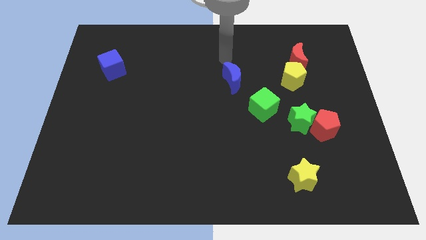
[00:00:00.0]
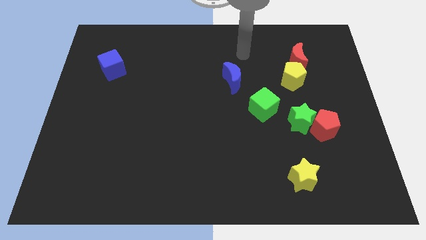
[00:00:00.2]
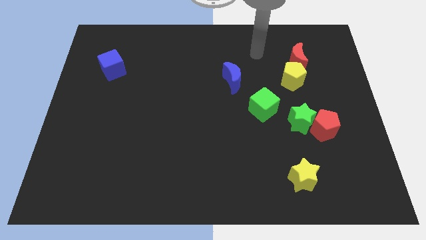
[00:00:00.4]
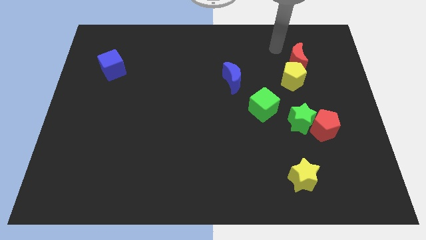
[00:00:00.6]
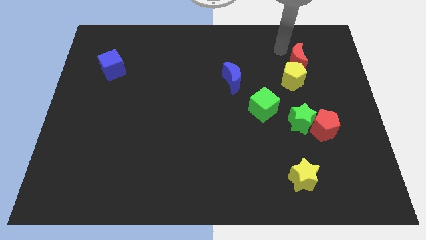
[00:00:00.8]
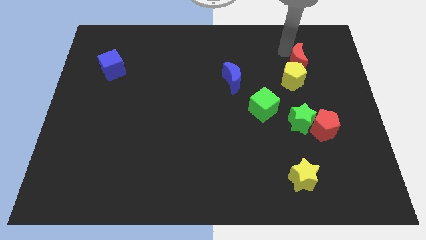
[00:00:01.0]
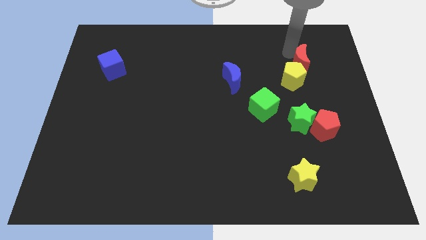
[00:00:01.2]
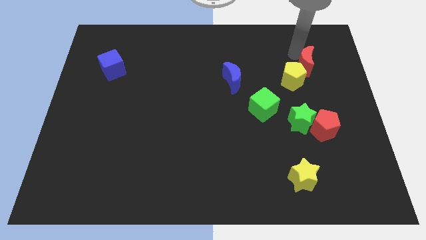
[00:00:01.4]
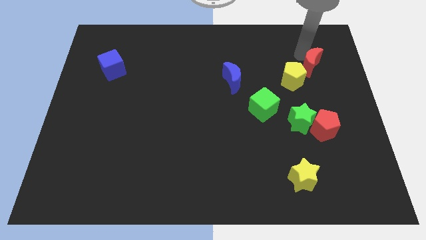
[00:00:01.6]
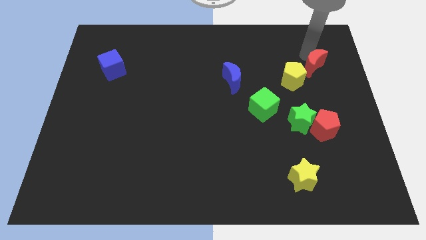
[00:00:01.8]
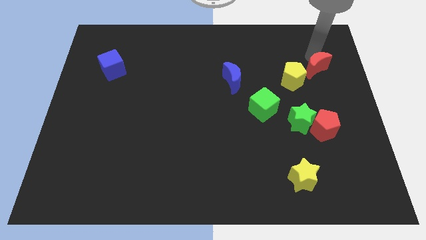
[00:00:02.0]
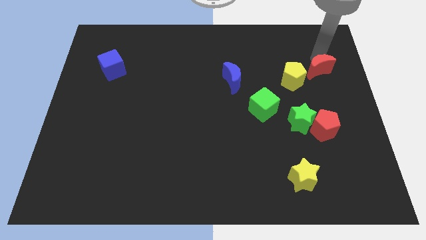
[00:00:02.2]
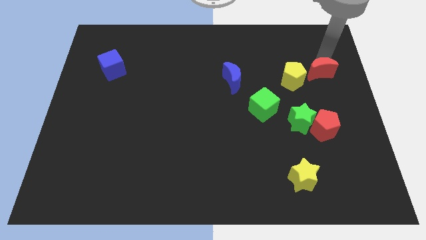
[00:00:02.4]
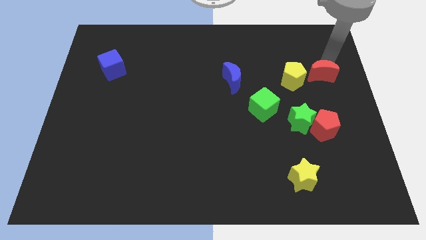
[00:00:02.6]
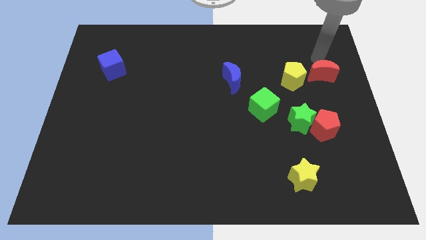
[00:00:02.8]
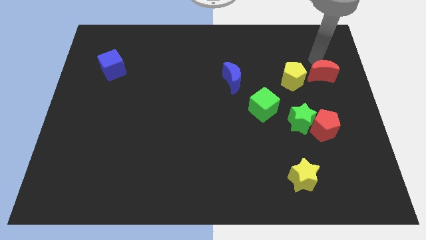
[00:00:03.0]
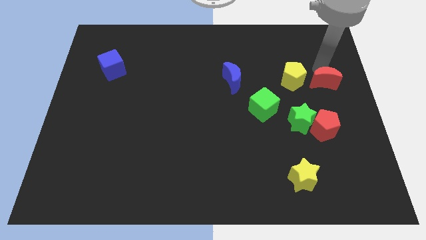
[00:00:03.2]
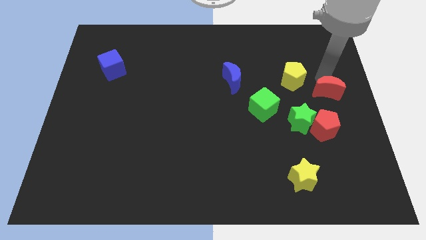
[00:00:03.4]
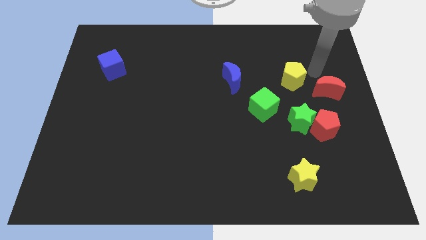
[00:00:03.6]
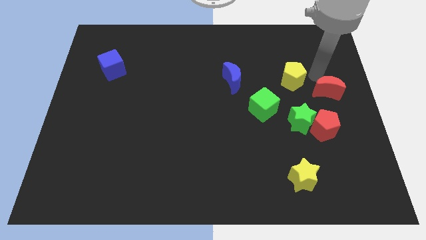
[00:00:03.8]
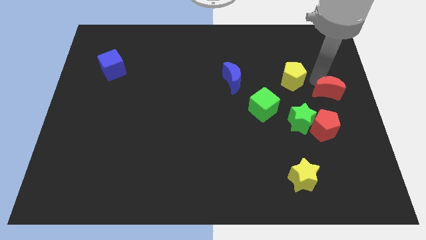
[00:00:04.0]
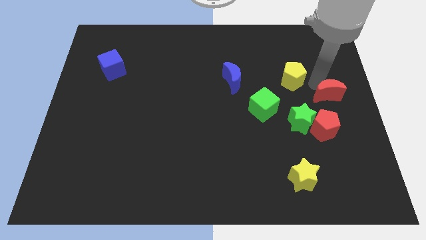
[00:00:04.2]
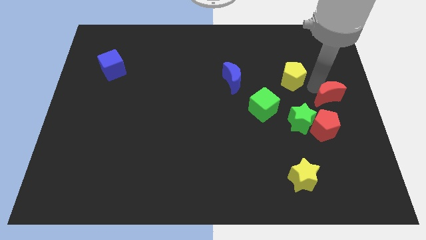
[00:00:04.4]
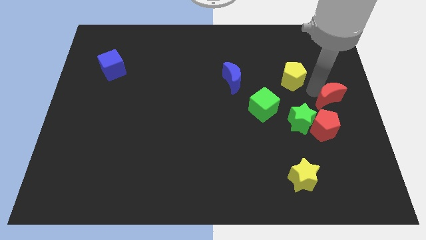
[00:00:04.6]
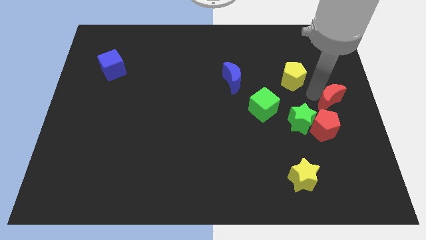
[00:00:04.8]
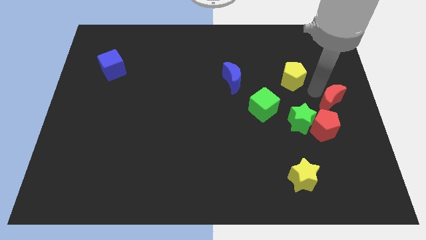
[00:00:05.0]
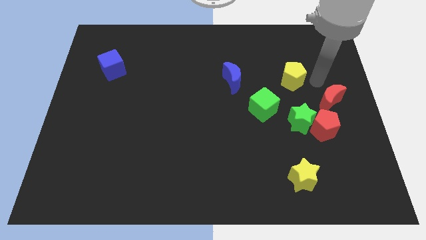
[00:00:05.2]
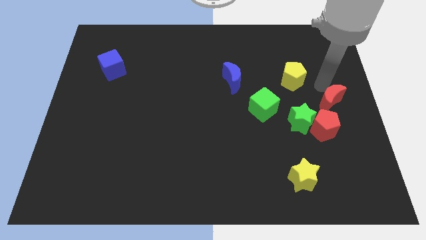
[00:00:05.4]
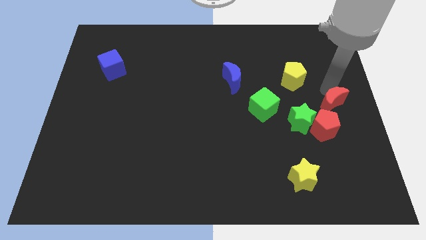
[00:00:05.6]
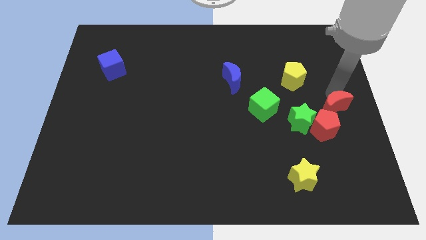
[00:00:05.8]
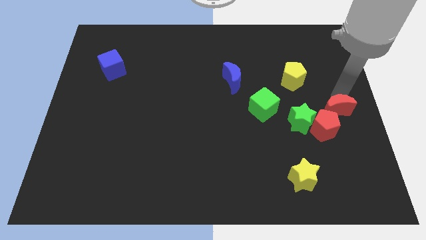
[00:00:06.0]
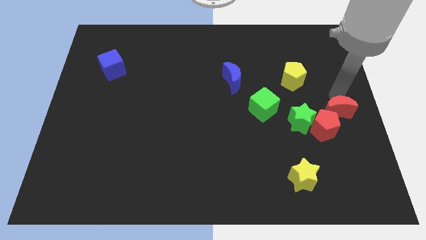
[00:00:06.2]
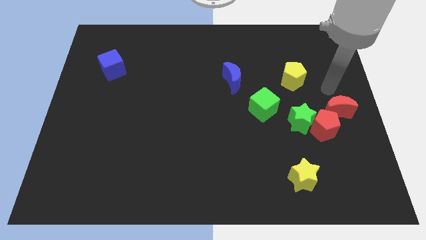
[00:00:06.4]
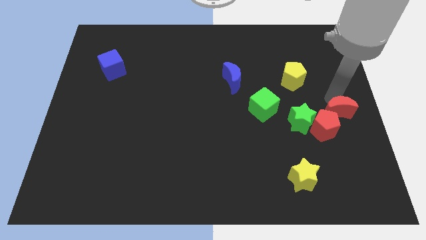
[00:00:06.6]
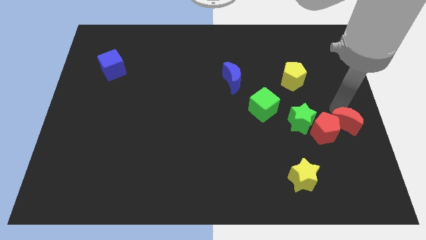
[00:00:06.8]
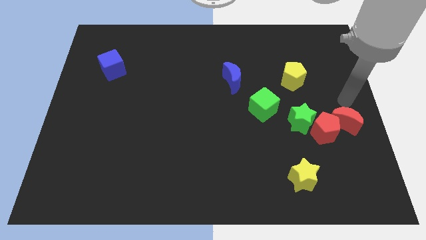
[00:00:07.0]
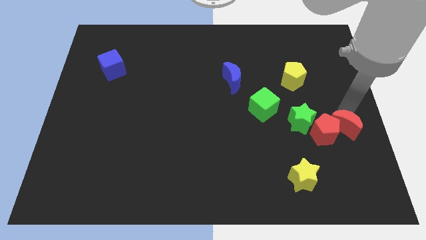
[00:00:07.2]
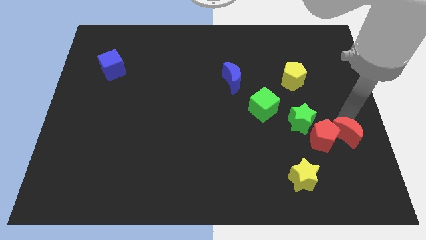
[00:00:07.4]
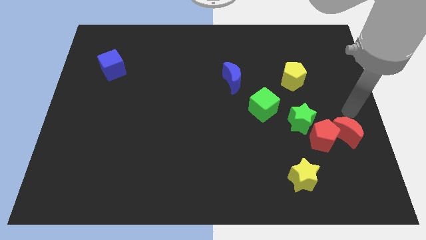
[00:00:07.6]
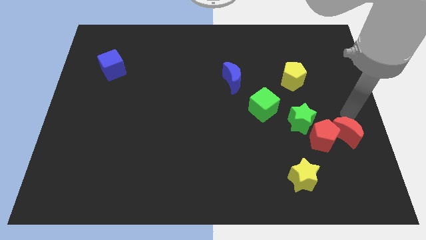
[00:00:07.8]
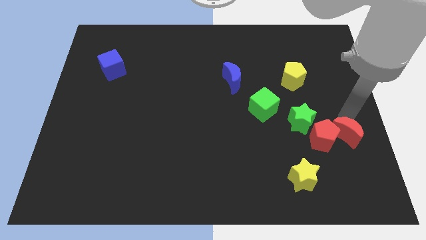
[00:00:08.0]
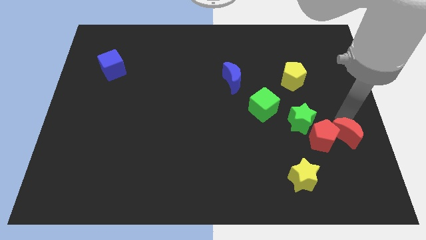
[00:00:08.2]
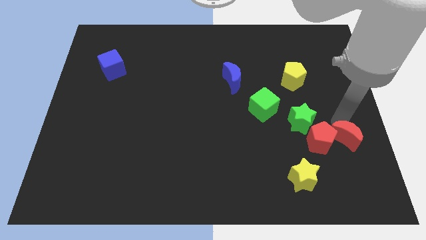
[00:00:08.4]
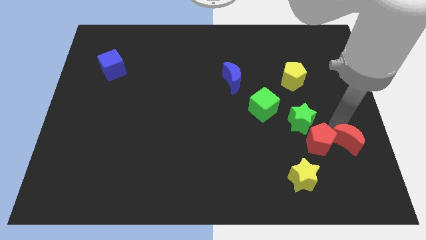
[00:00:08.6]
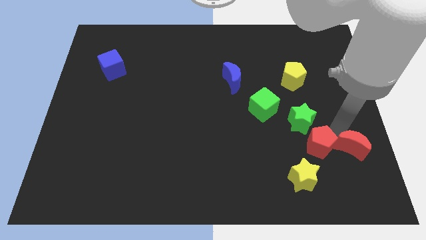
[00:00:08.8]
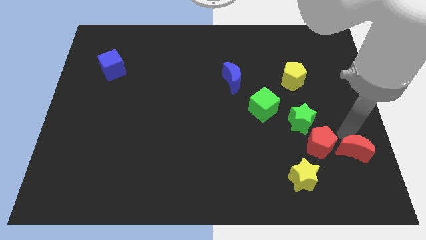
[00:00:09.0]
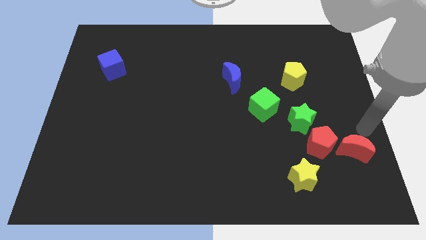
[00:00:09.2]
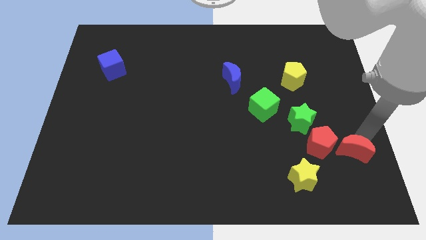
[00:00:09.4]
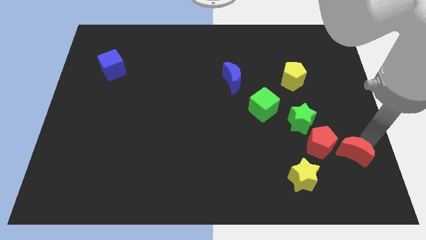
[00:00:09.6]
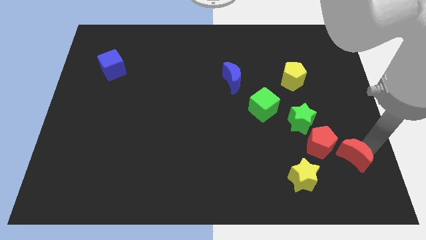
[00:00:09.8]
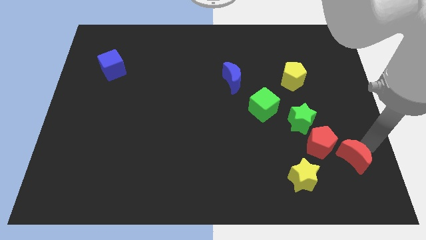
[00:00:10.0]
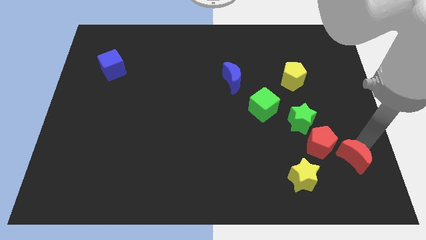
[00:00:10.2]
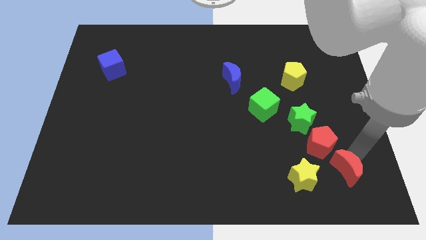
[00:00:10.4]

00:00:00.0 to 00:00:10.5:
move the red moon to the bottom of the red pentagon

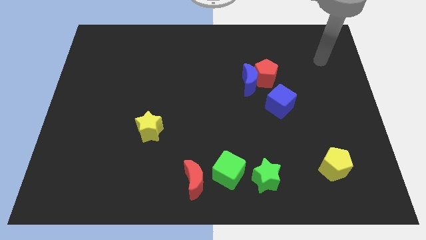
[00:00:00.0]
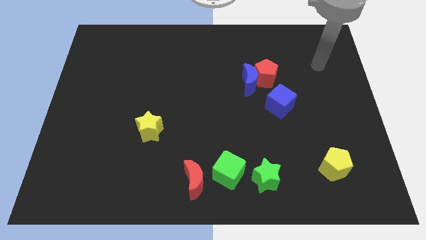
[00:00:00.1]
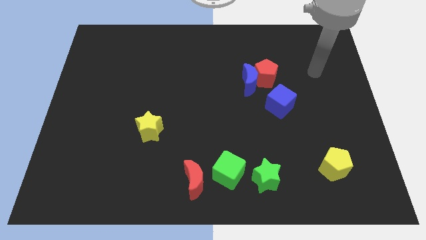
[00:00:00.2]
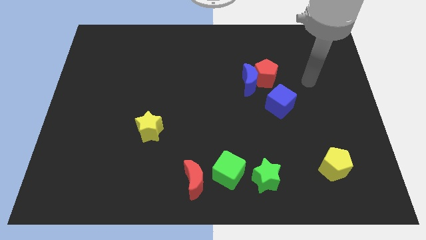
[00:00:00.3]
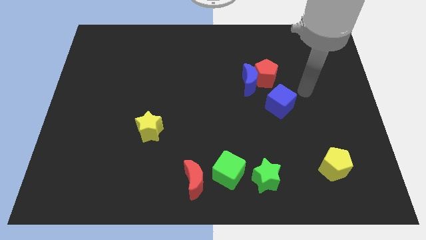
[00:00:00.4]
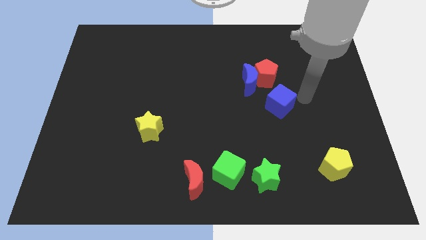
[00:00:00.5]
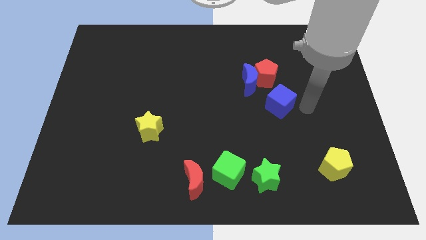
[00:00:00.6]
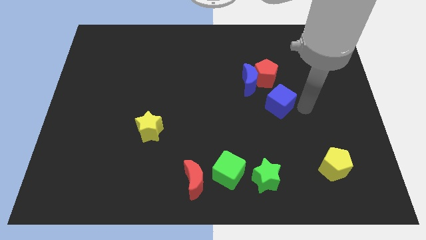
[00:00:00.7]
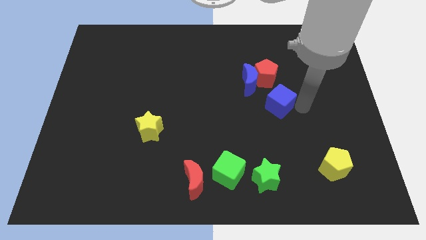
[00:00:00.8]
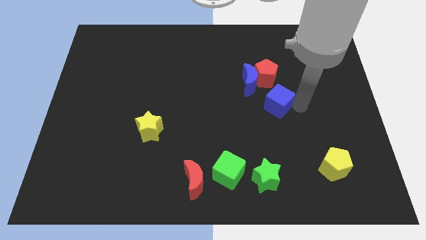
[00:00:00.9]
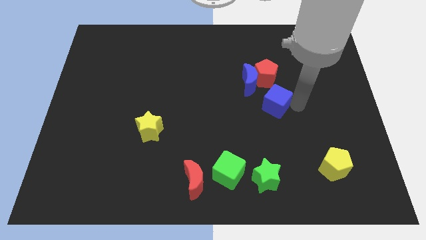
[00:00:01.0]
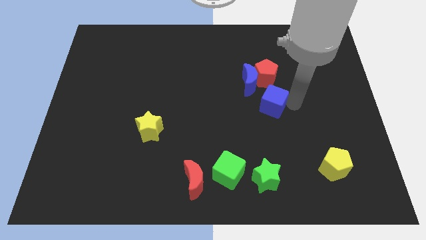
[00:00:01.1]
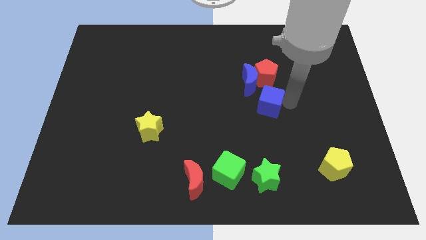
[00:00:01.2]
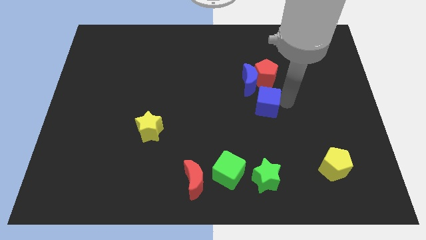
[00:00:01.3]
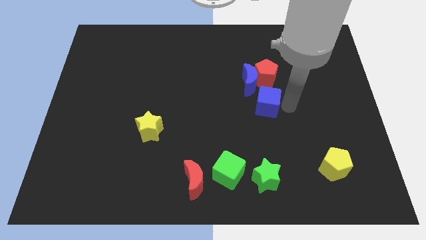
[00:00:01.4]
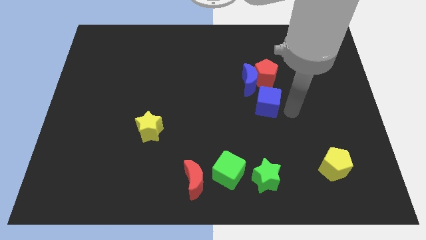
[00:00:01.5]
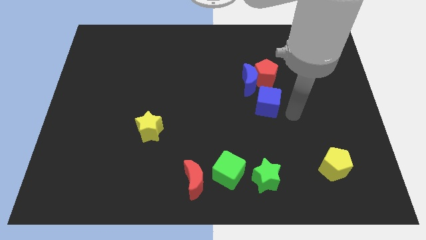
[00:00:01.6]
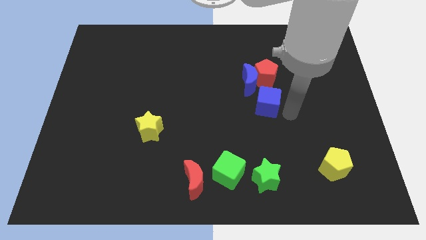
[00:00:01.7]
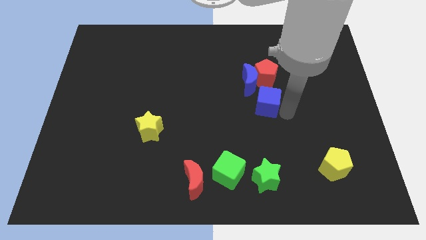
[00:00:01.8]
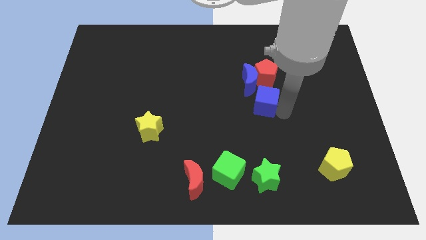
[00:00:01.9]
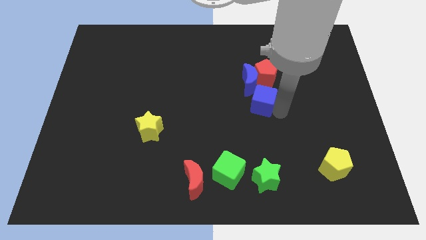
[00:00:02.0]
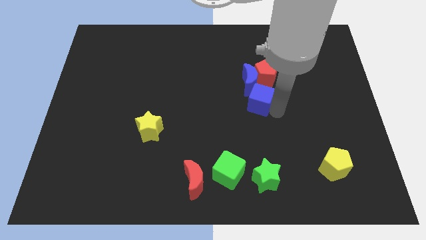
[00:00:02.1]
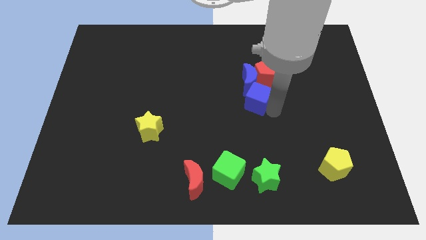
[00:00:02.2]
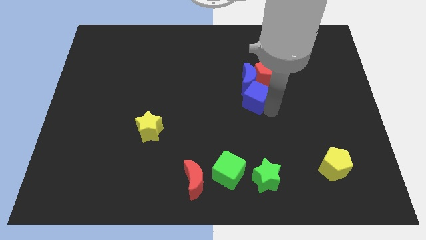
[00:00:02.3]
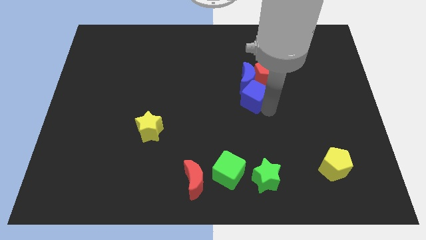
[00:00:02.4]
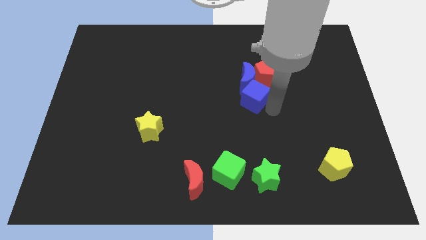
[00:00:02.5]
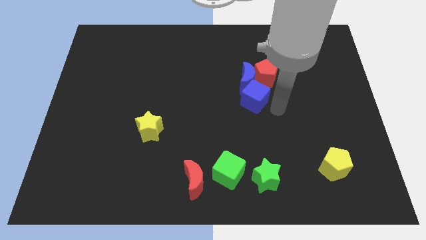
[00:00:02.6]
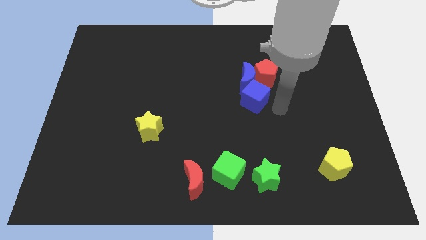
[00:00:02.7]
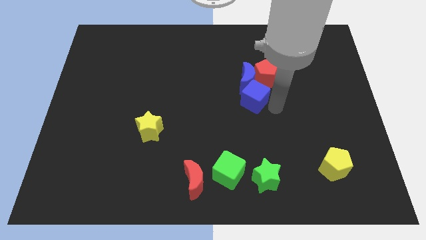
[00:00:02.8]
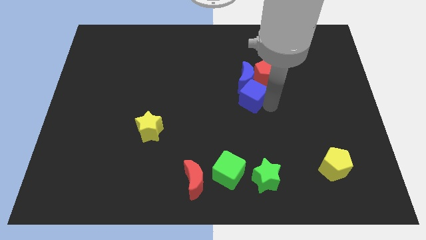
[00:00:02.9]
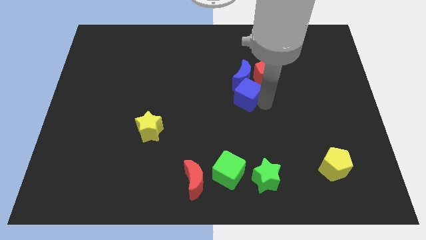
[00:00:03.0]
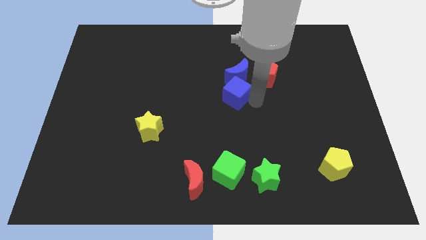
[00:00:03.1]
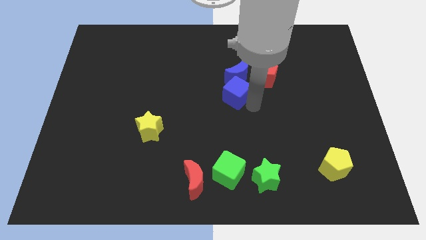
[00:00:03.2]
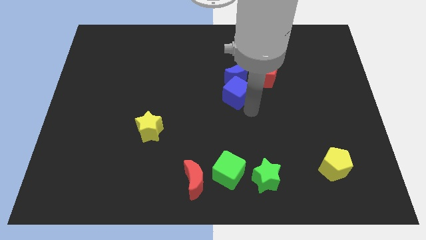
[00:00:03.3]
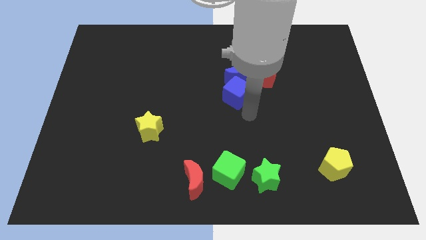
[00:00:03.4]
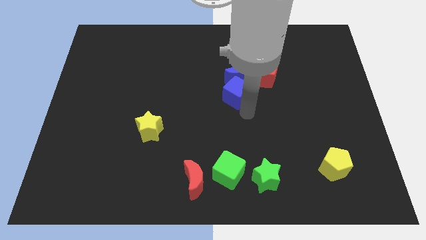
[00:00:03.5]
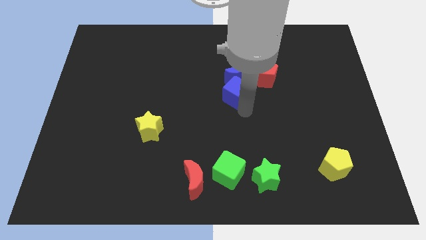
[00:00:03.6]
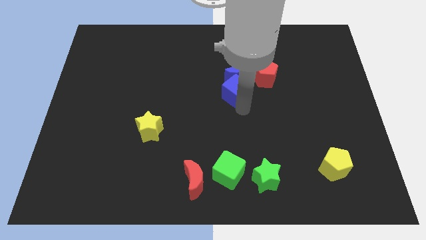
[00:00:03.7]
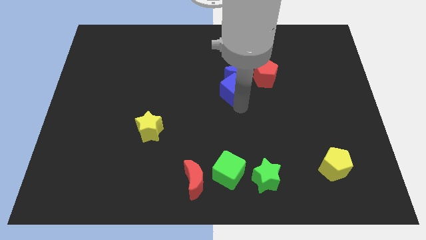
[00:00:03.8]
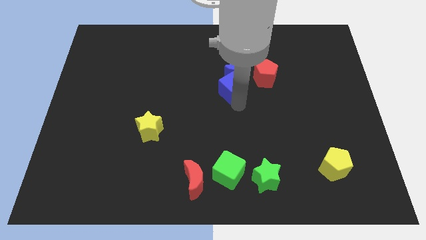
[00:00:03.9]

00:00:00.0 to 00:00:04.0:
push the blue cube just left of the red pentagon
